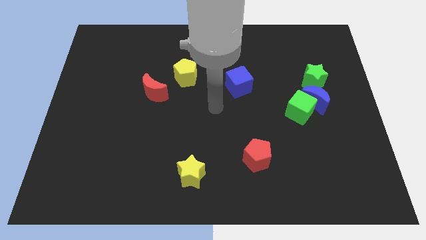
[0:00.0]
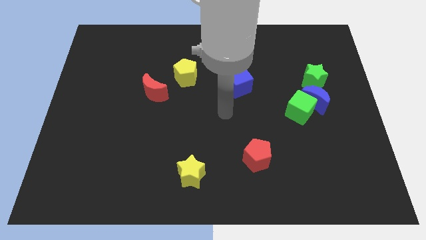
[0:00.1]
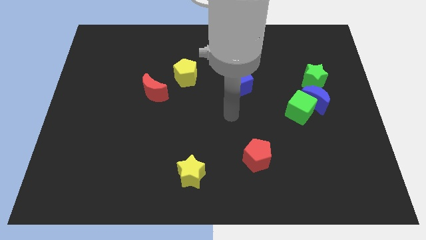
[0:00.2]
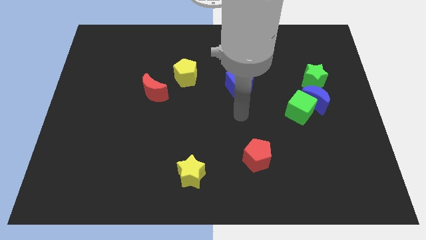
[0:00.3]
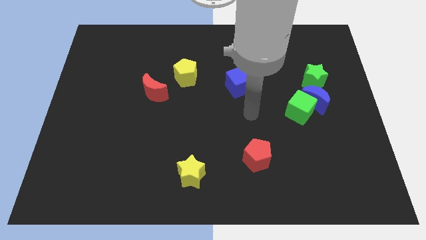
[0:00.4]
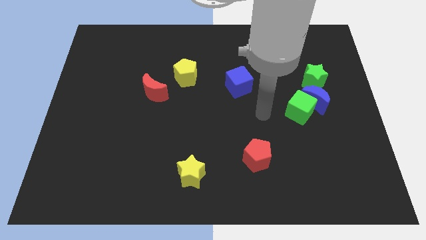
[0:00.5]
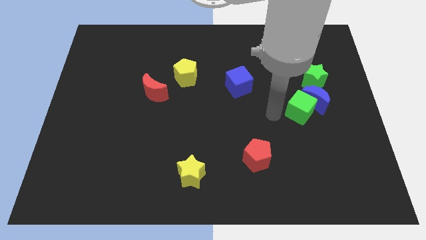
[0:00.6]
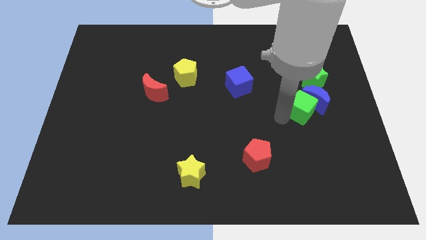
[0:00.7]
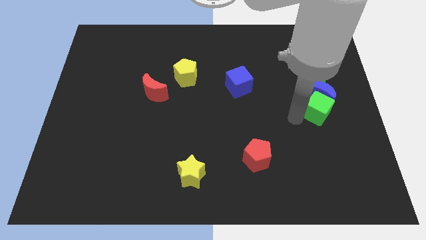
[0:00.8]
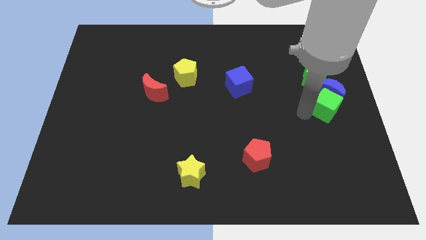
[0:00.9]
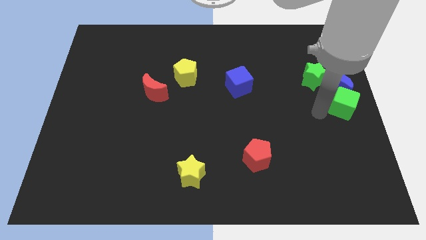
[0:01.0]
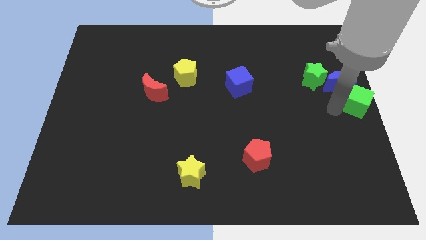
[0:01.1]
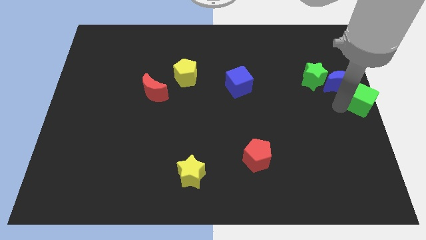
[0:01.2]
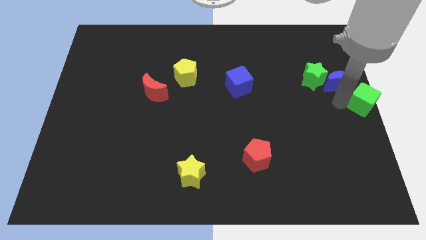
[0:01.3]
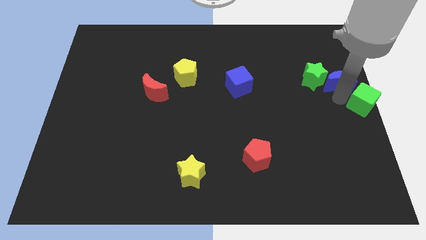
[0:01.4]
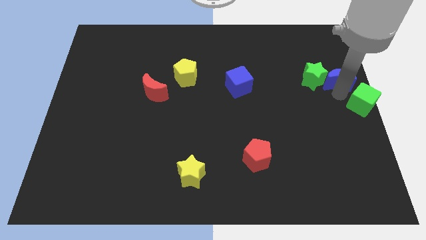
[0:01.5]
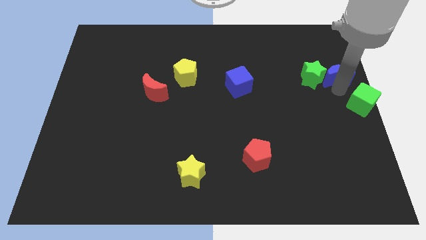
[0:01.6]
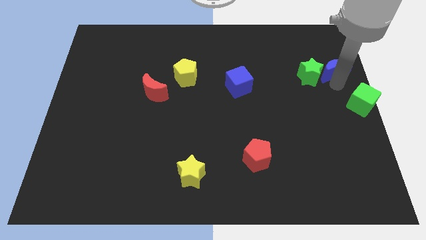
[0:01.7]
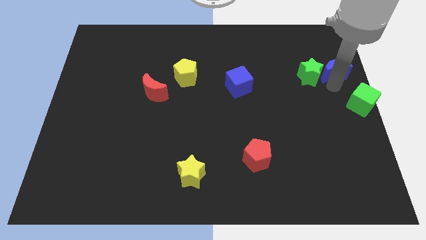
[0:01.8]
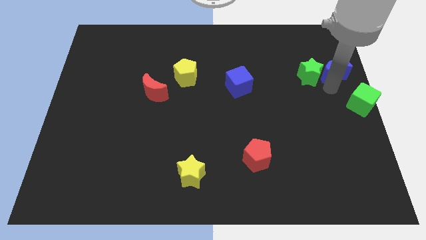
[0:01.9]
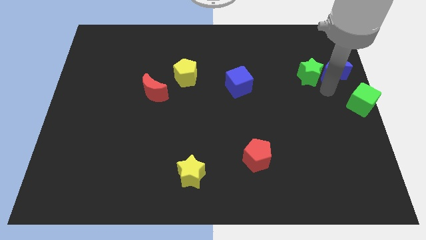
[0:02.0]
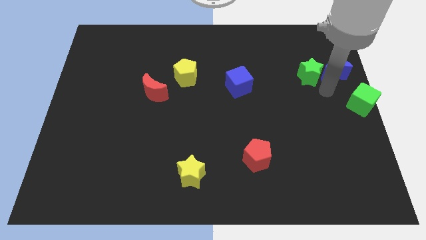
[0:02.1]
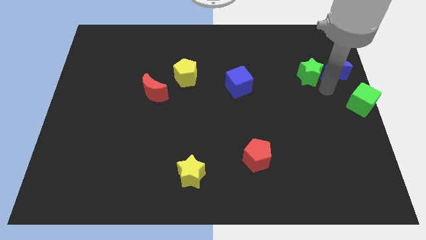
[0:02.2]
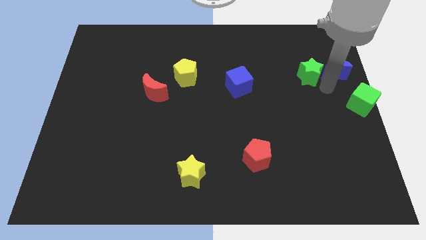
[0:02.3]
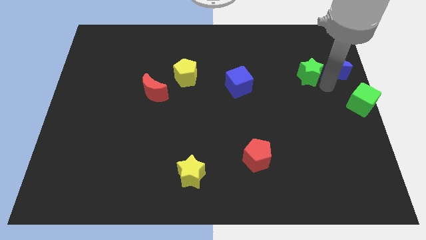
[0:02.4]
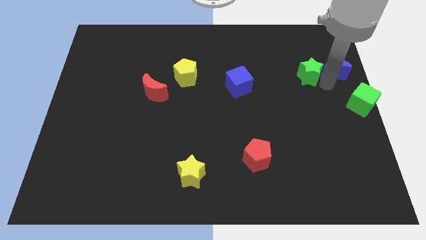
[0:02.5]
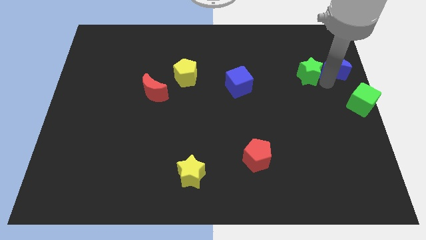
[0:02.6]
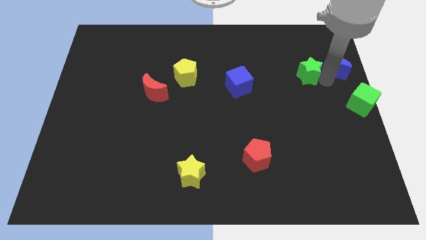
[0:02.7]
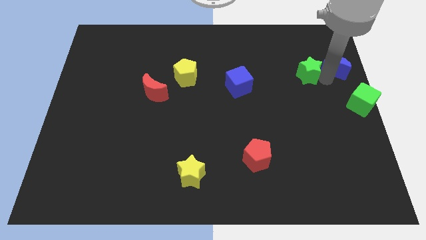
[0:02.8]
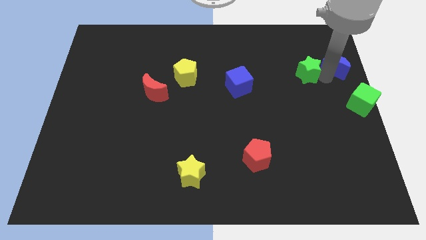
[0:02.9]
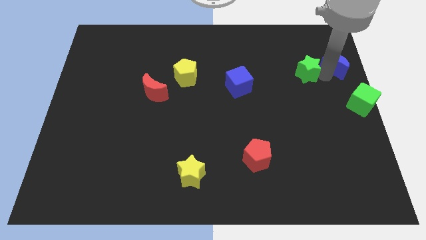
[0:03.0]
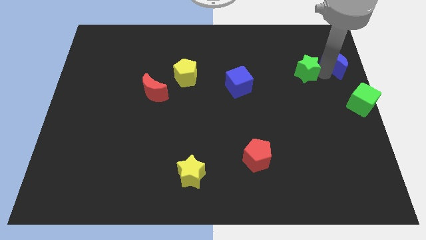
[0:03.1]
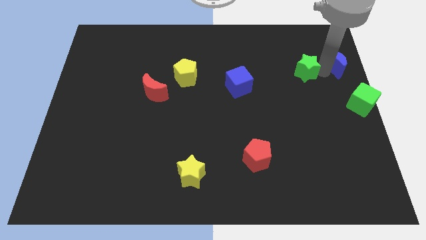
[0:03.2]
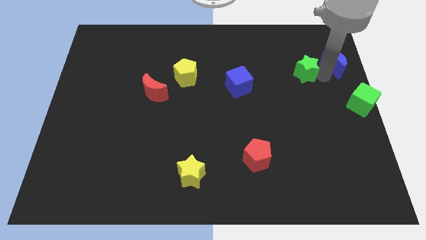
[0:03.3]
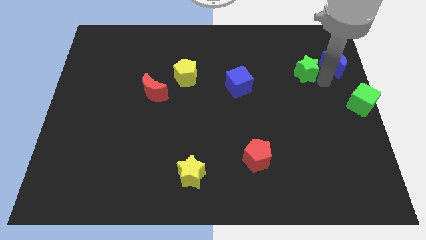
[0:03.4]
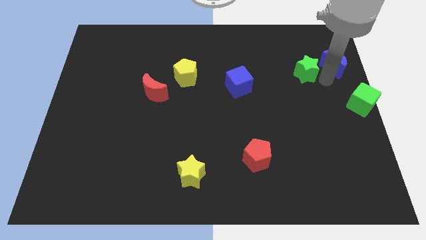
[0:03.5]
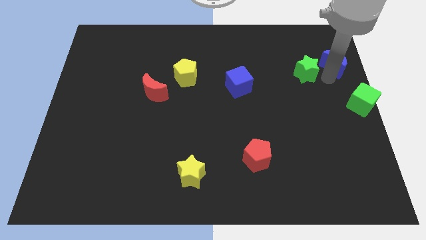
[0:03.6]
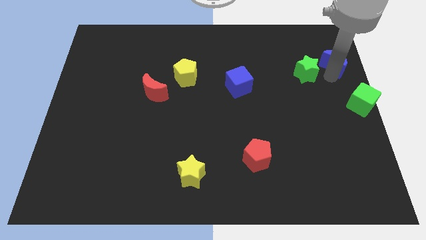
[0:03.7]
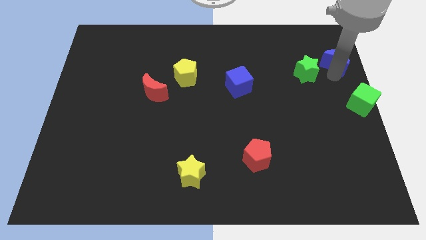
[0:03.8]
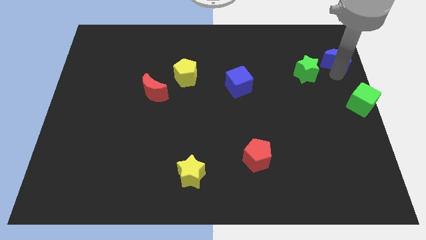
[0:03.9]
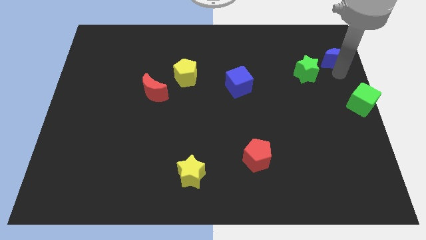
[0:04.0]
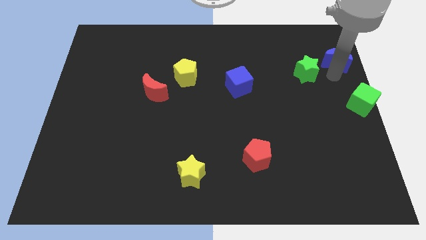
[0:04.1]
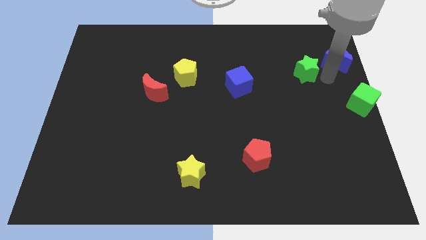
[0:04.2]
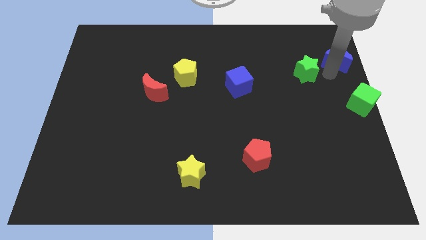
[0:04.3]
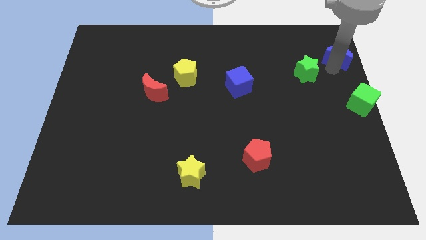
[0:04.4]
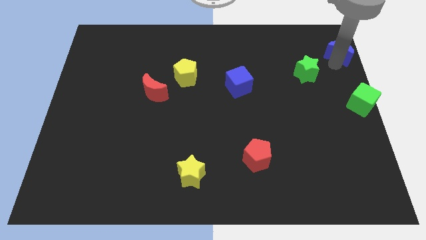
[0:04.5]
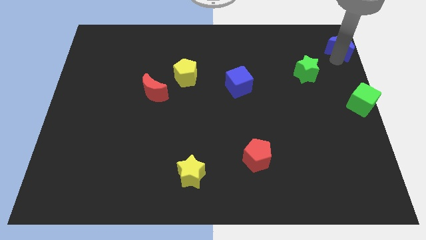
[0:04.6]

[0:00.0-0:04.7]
move the blue moon to the upper right corner

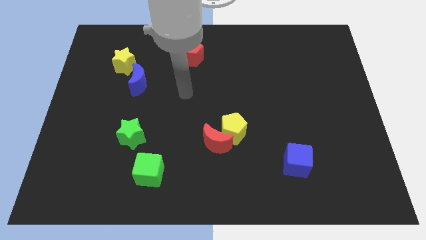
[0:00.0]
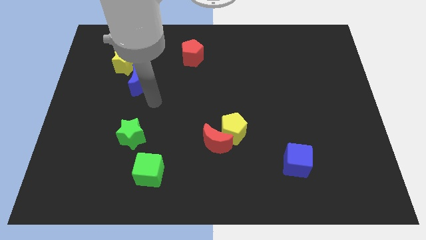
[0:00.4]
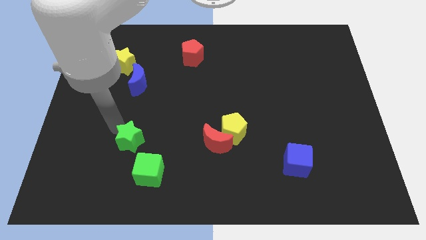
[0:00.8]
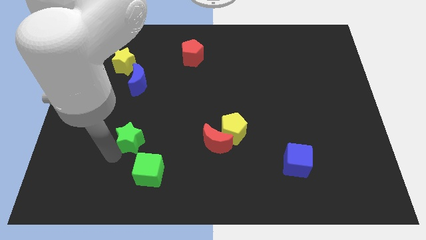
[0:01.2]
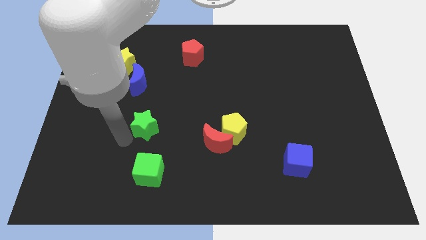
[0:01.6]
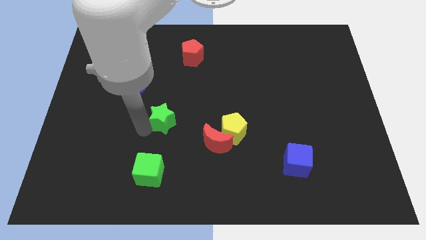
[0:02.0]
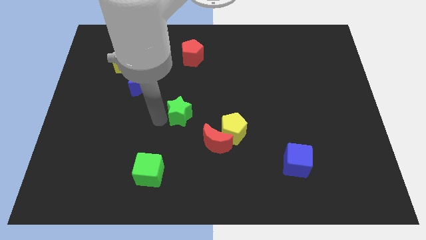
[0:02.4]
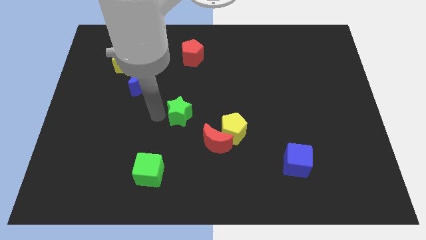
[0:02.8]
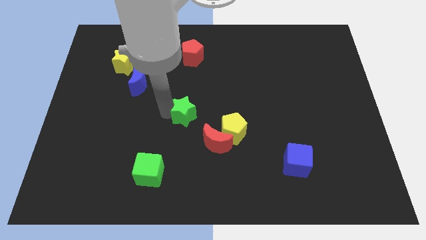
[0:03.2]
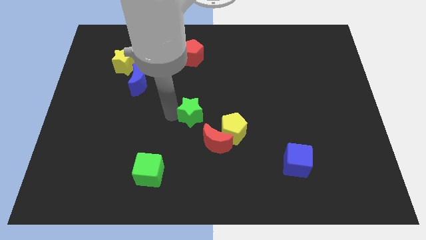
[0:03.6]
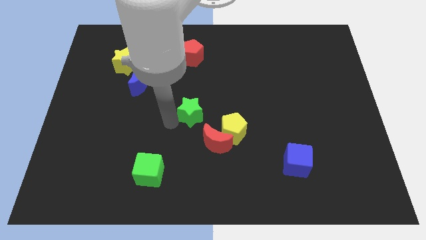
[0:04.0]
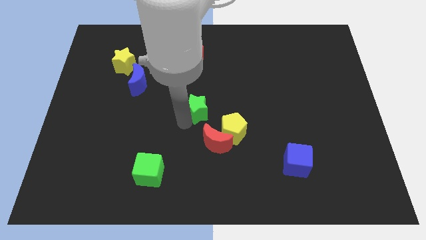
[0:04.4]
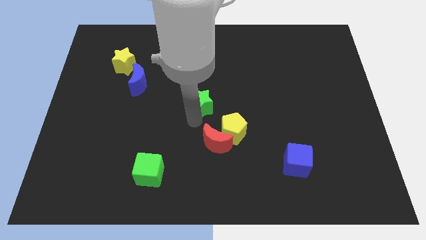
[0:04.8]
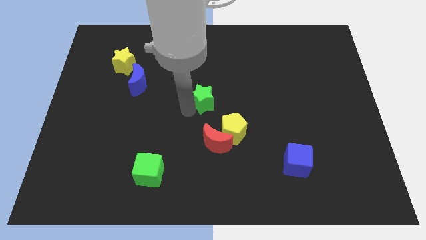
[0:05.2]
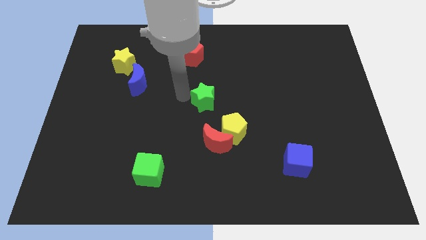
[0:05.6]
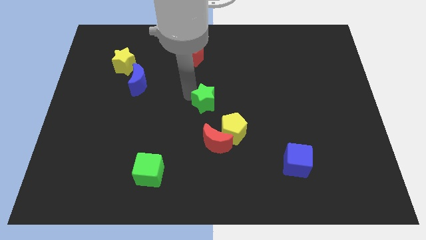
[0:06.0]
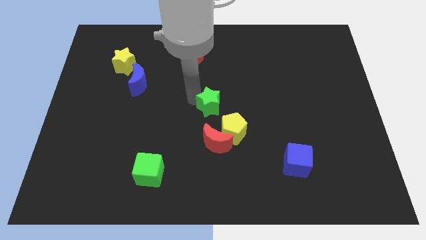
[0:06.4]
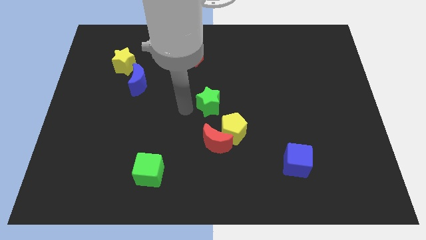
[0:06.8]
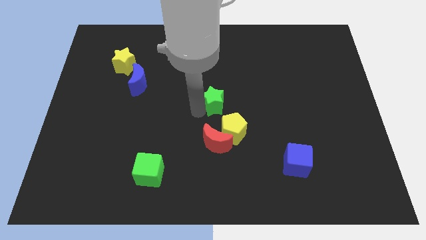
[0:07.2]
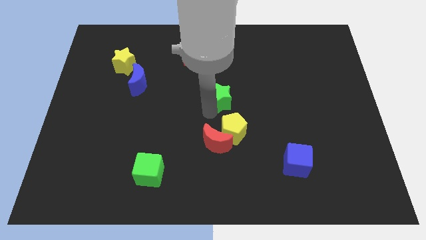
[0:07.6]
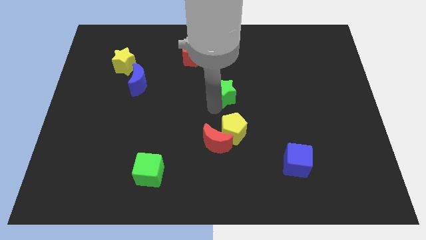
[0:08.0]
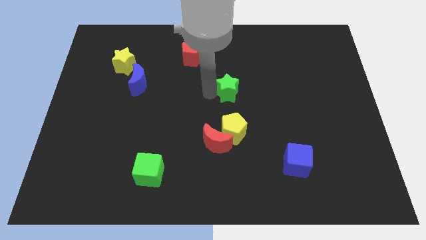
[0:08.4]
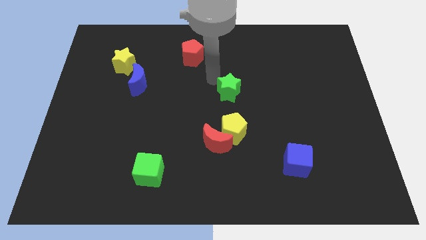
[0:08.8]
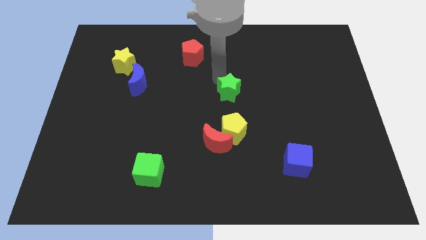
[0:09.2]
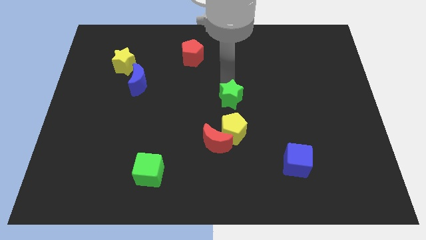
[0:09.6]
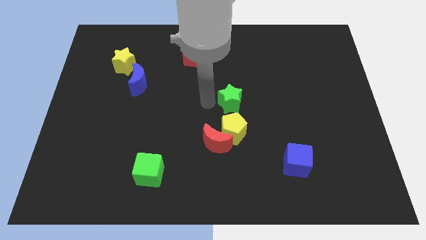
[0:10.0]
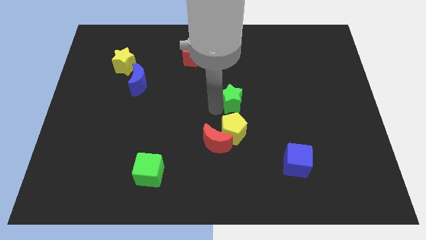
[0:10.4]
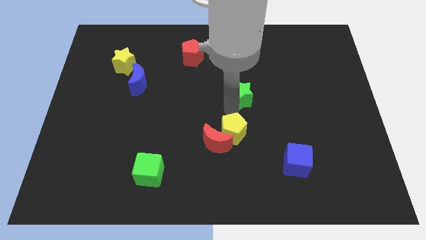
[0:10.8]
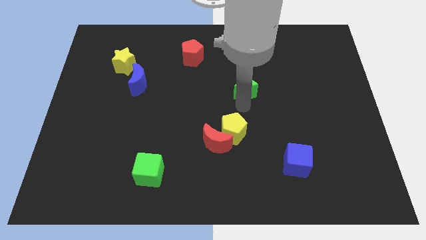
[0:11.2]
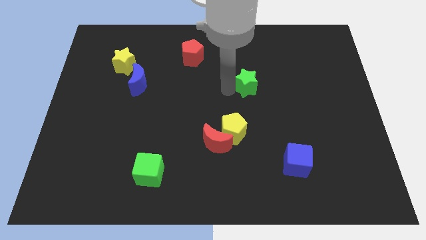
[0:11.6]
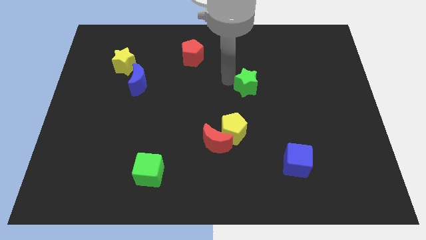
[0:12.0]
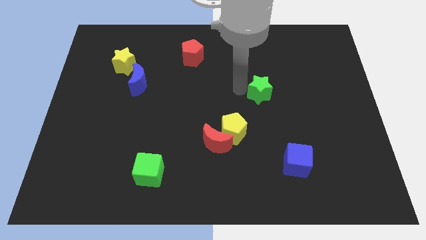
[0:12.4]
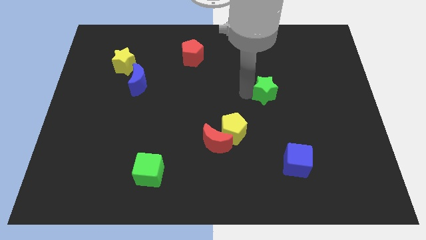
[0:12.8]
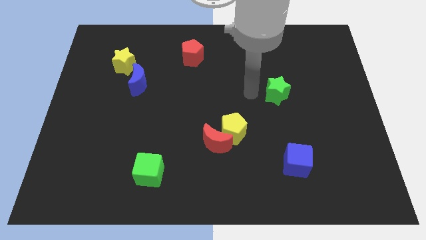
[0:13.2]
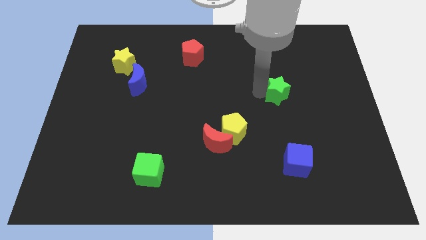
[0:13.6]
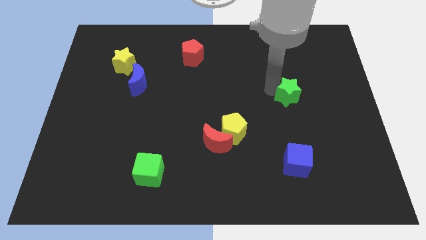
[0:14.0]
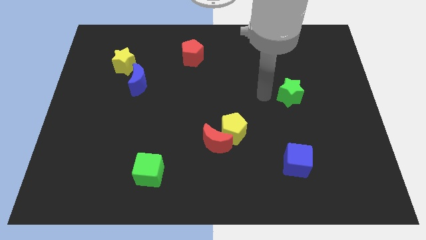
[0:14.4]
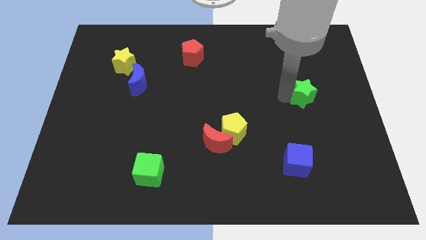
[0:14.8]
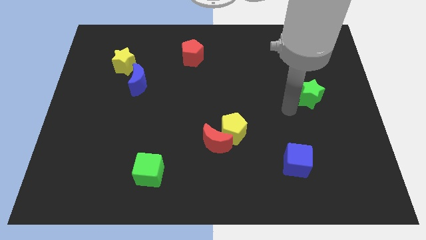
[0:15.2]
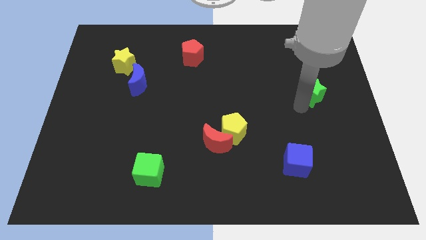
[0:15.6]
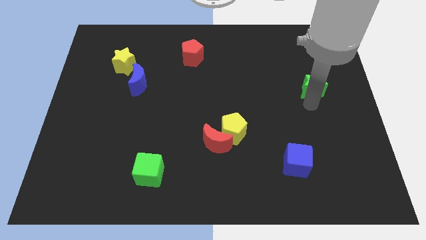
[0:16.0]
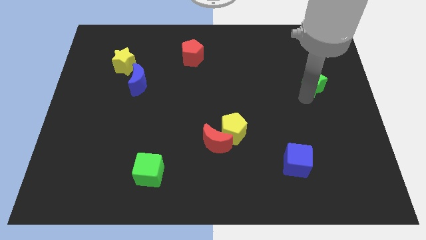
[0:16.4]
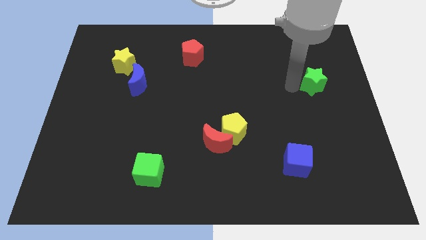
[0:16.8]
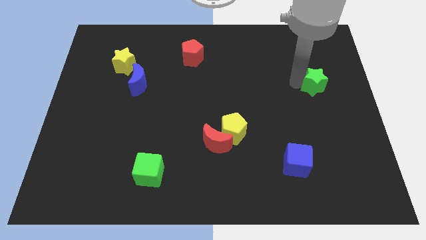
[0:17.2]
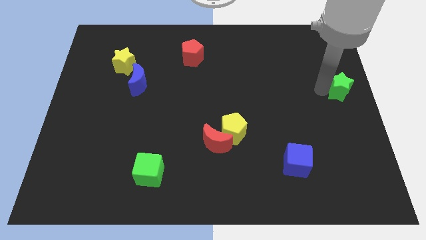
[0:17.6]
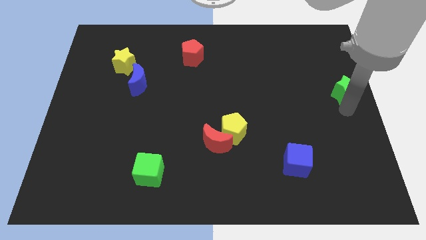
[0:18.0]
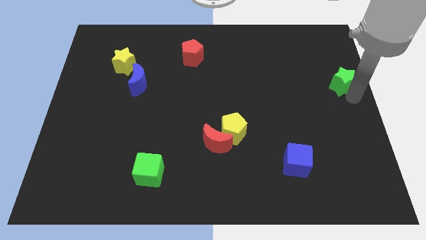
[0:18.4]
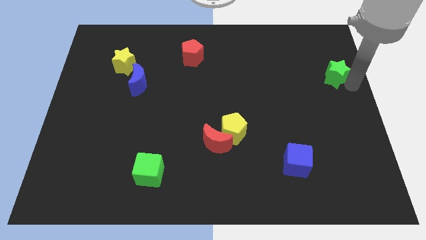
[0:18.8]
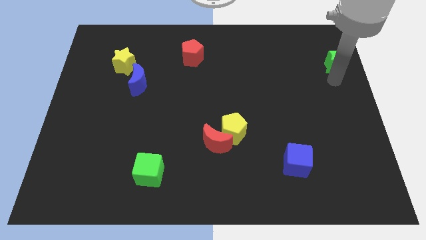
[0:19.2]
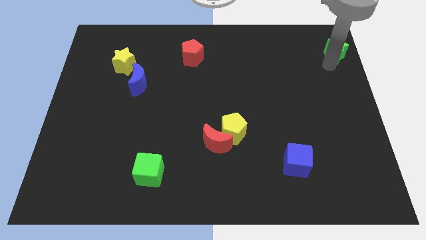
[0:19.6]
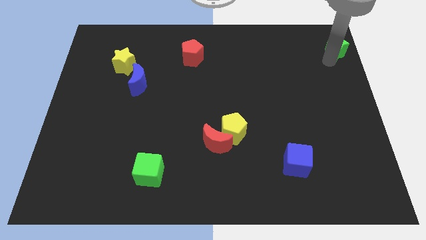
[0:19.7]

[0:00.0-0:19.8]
push the green star to the top right of the board
